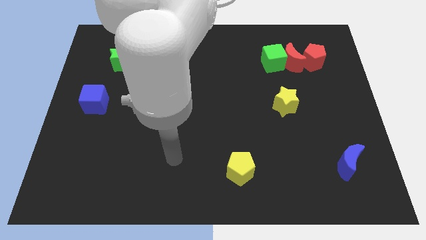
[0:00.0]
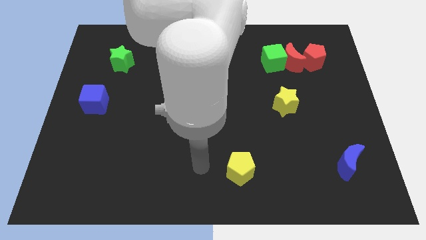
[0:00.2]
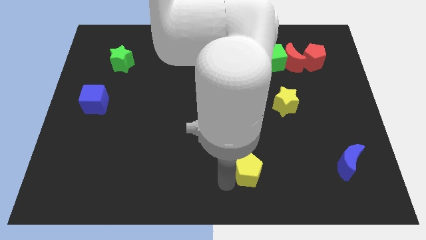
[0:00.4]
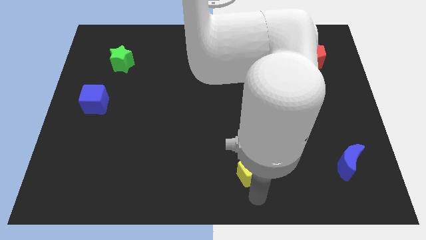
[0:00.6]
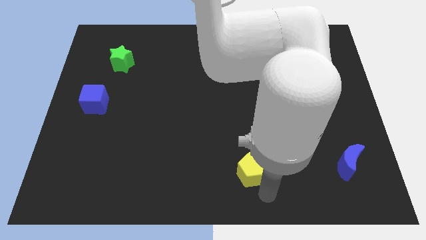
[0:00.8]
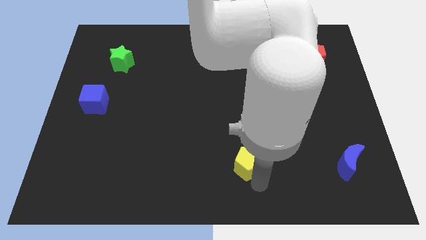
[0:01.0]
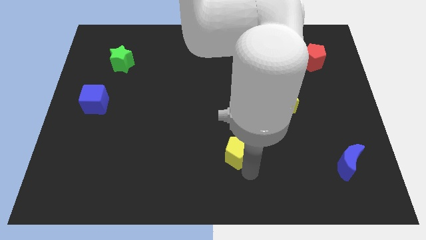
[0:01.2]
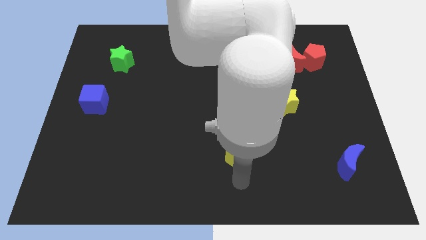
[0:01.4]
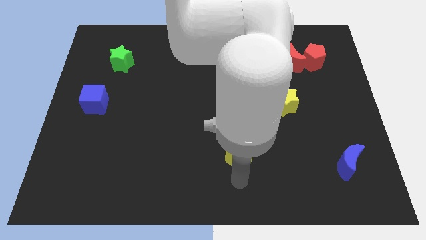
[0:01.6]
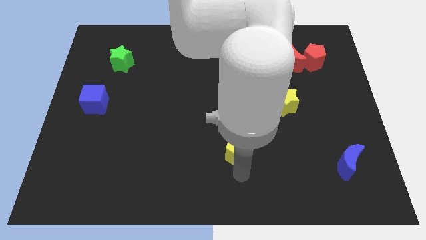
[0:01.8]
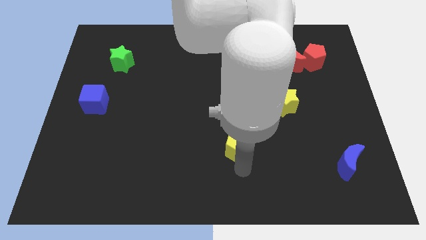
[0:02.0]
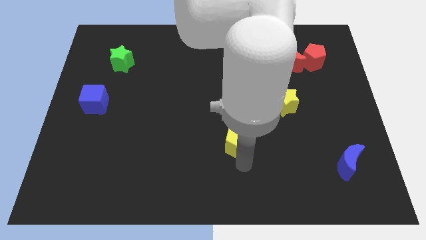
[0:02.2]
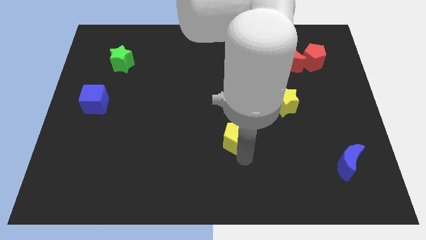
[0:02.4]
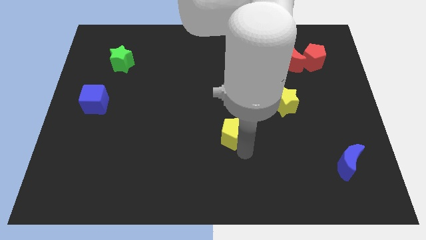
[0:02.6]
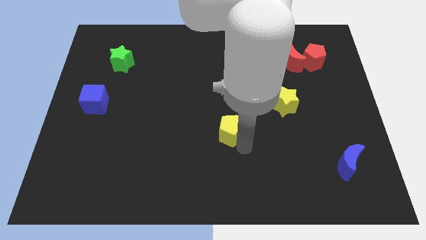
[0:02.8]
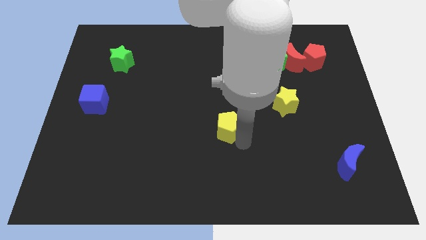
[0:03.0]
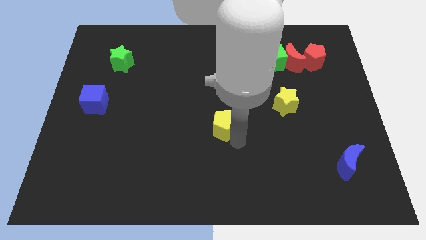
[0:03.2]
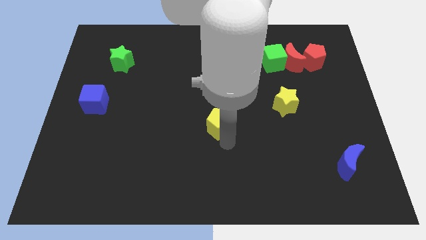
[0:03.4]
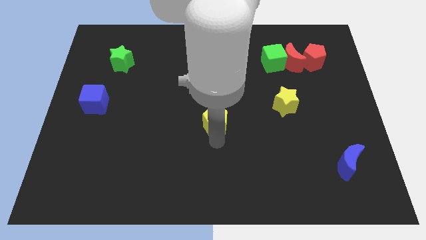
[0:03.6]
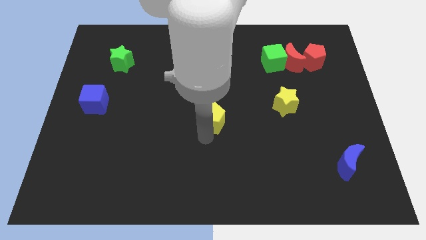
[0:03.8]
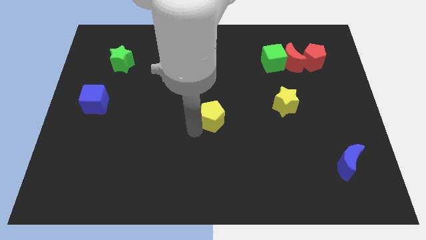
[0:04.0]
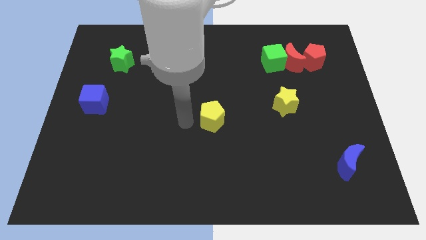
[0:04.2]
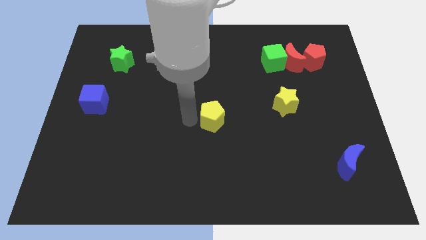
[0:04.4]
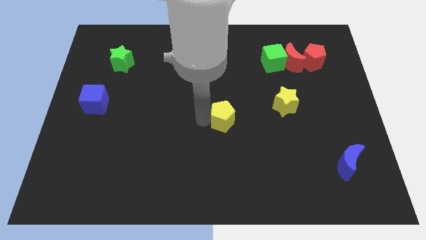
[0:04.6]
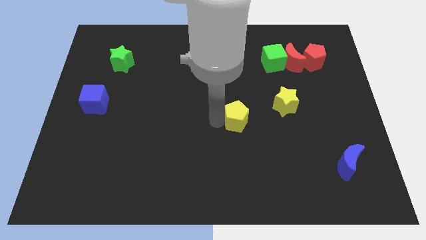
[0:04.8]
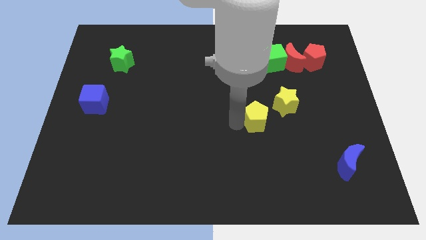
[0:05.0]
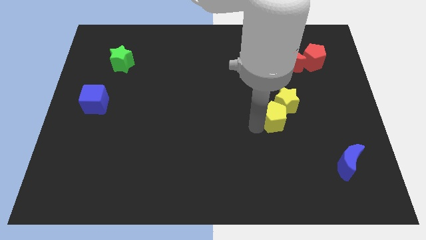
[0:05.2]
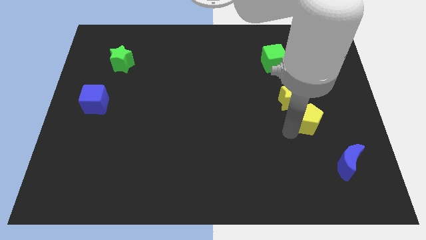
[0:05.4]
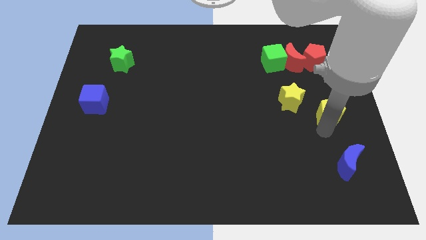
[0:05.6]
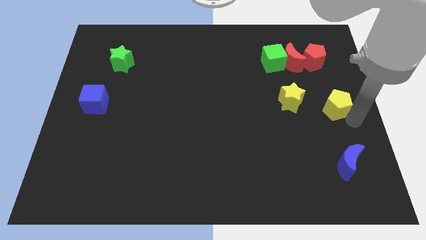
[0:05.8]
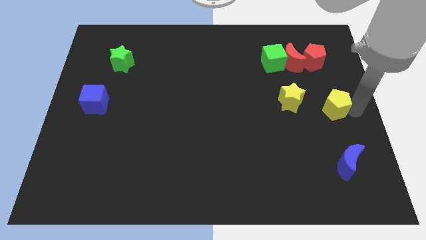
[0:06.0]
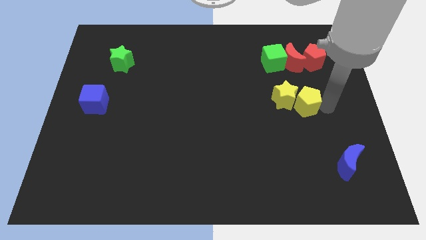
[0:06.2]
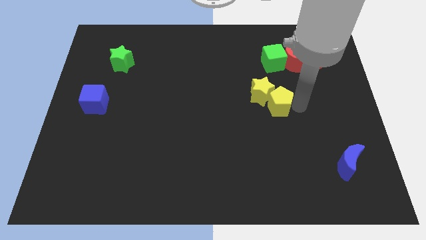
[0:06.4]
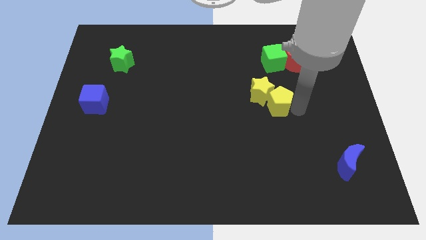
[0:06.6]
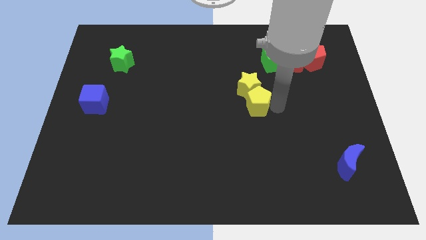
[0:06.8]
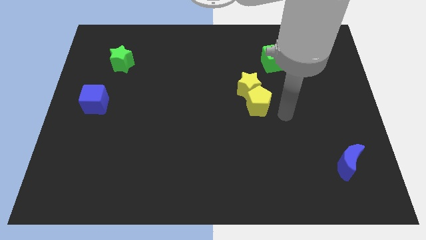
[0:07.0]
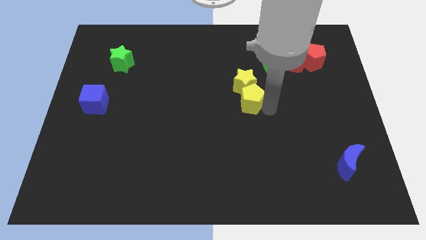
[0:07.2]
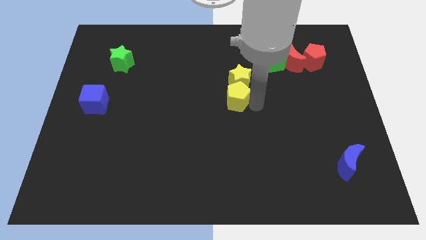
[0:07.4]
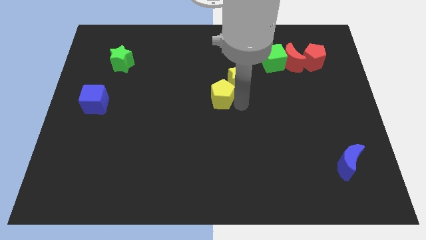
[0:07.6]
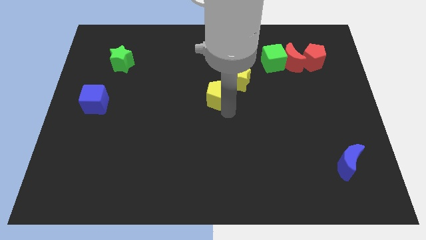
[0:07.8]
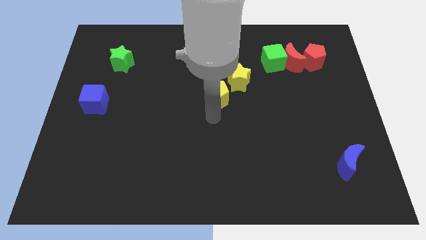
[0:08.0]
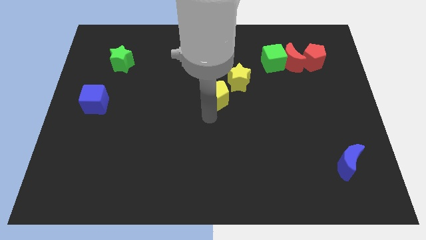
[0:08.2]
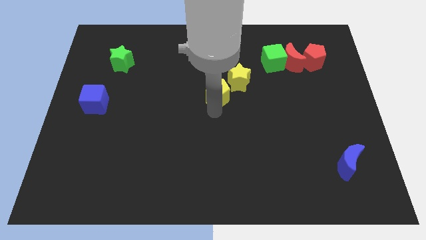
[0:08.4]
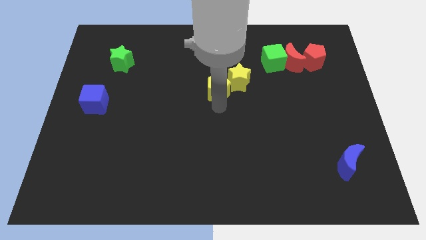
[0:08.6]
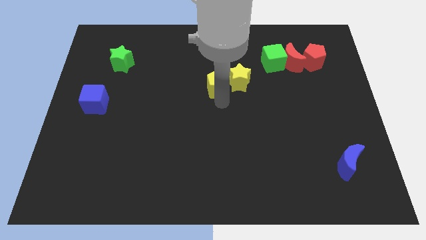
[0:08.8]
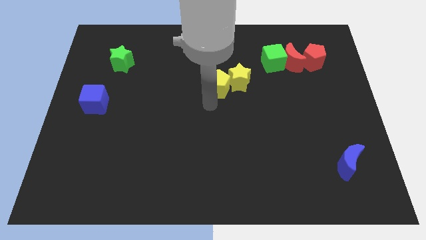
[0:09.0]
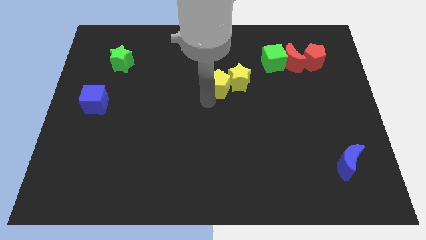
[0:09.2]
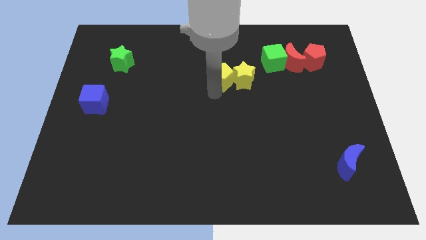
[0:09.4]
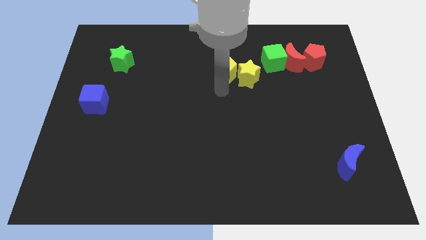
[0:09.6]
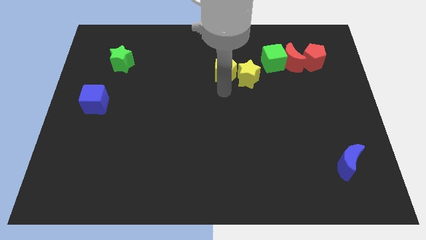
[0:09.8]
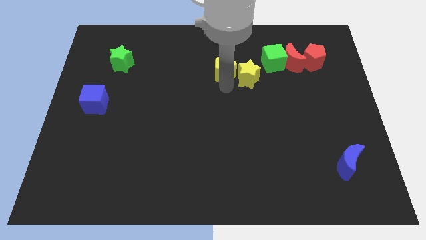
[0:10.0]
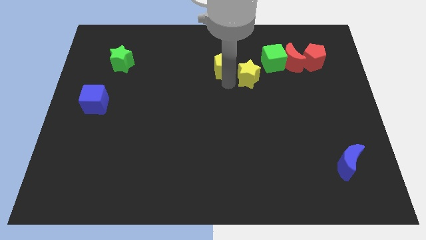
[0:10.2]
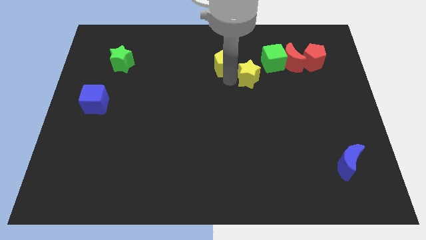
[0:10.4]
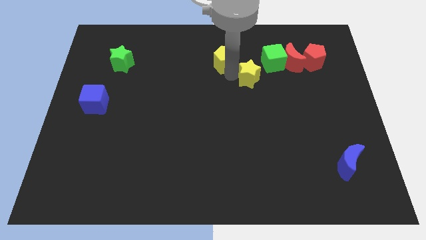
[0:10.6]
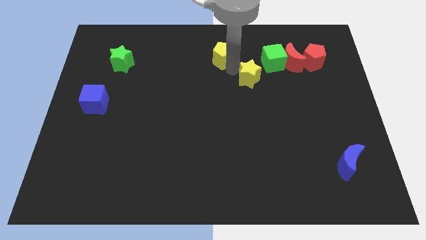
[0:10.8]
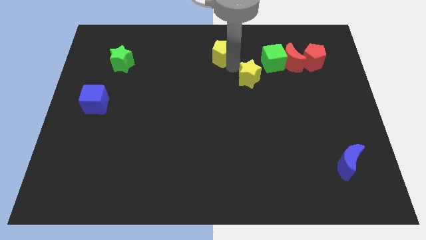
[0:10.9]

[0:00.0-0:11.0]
move the yellow pentagon to the top side
